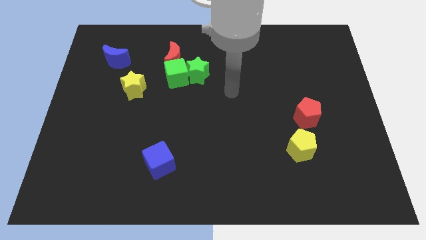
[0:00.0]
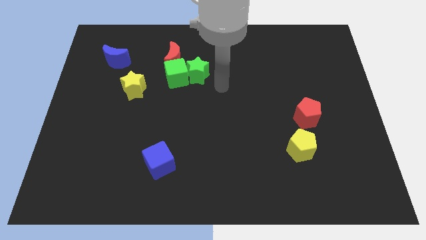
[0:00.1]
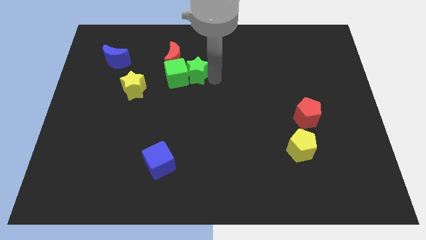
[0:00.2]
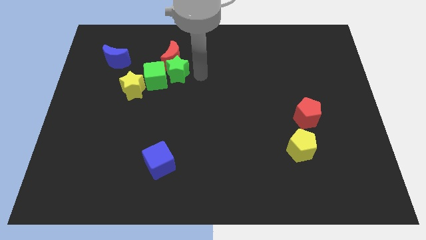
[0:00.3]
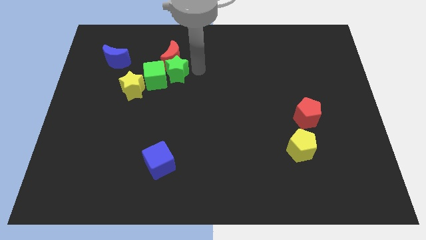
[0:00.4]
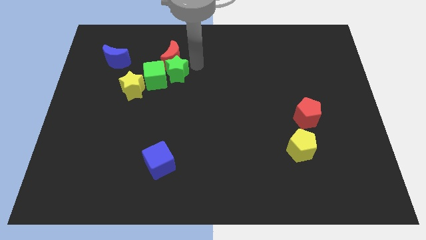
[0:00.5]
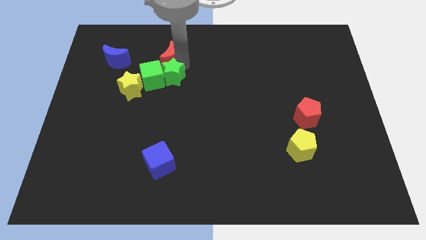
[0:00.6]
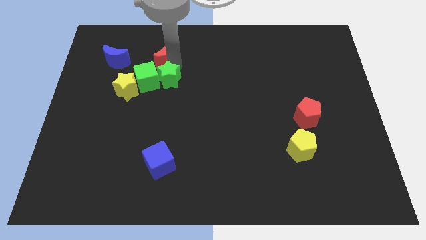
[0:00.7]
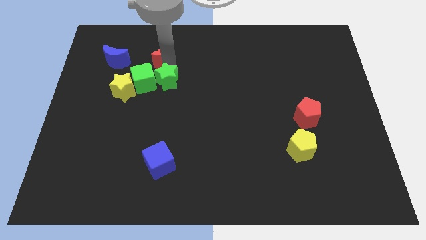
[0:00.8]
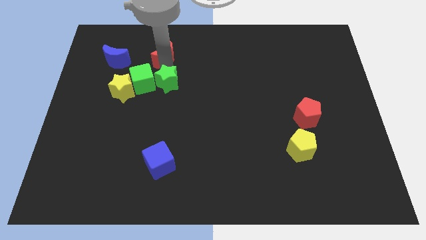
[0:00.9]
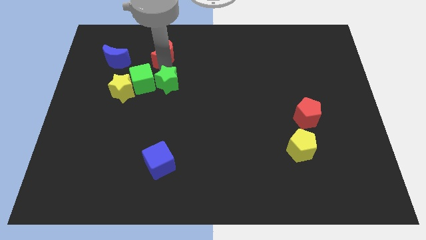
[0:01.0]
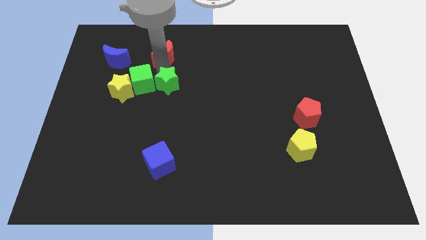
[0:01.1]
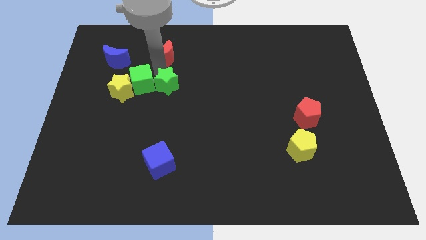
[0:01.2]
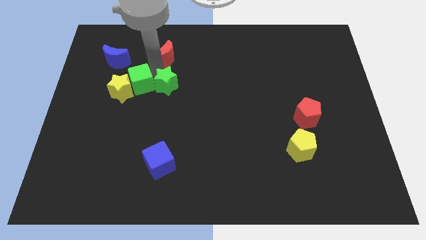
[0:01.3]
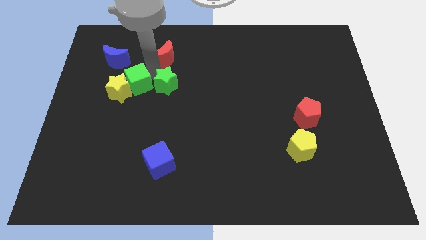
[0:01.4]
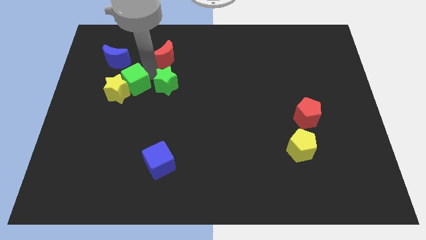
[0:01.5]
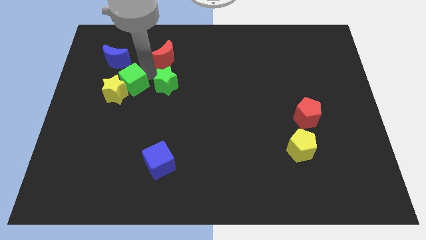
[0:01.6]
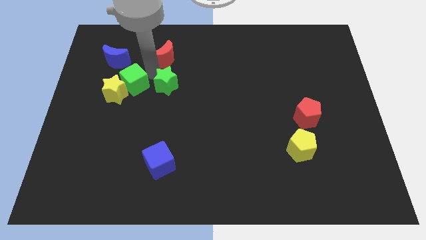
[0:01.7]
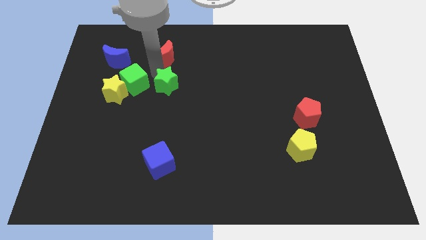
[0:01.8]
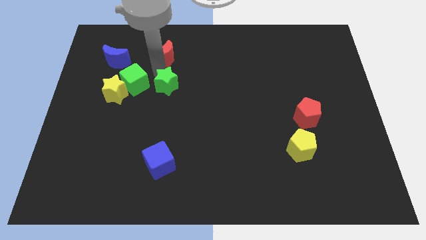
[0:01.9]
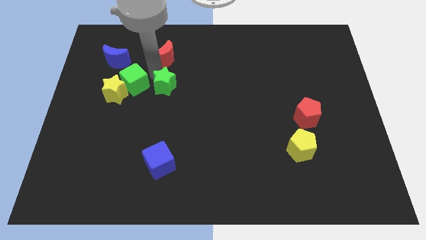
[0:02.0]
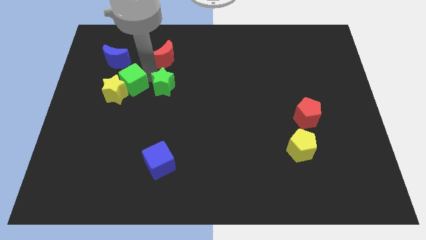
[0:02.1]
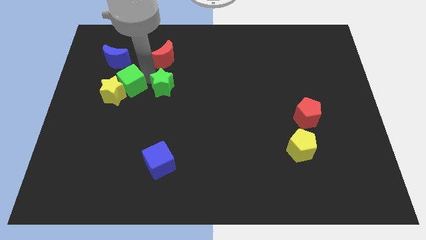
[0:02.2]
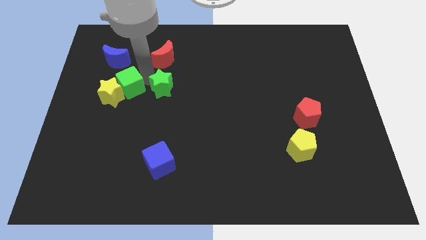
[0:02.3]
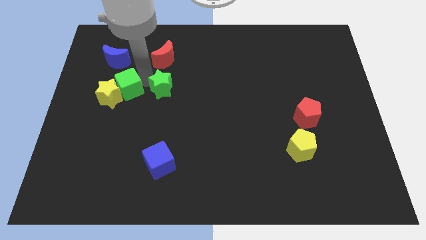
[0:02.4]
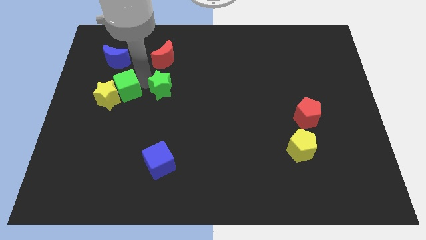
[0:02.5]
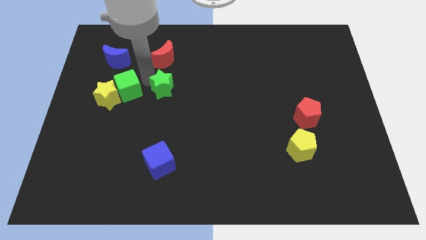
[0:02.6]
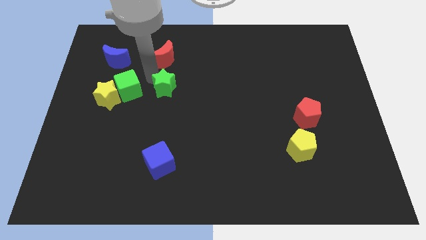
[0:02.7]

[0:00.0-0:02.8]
pull the green cube apart from the green star and red moon

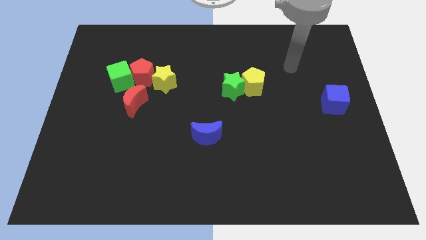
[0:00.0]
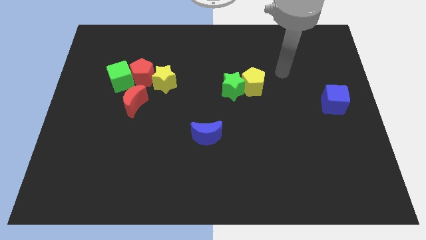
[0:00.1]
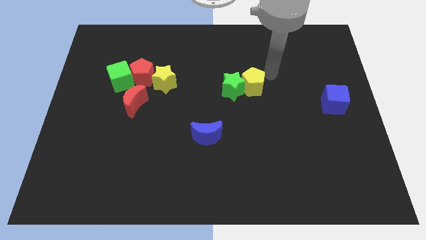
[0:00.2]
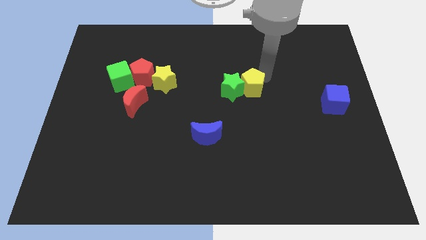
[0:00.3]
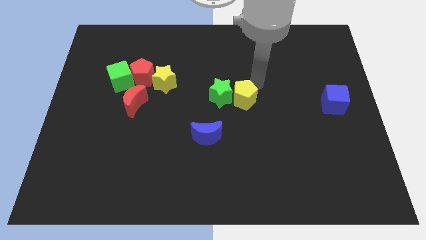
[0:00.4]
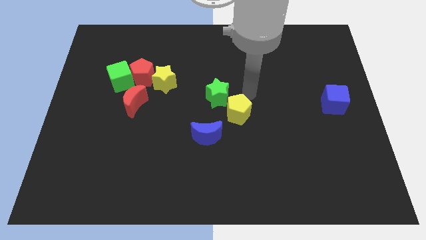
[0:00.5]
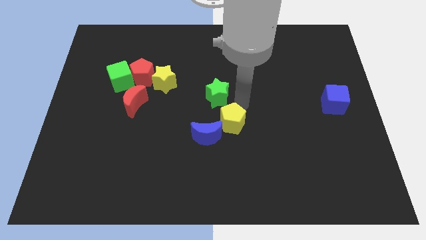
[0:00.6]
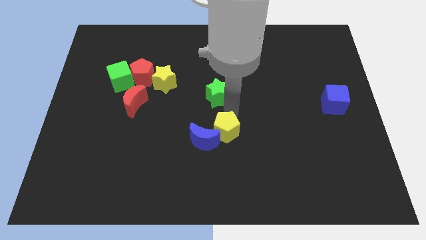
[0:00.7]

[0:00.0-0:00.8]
separate the green star from the yellow pentagon

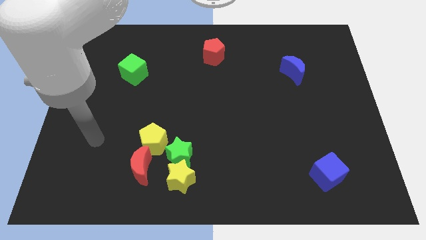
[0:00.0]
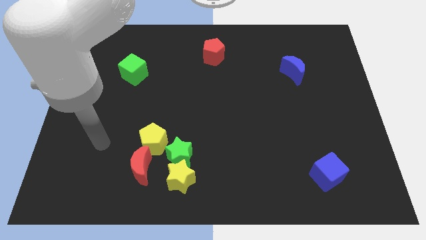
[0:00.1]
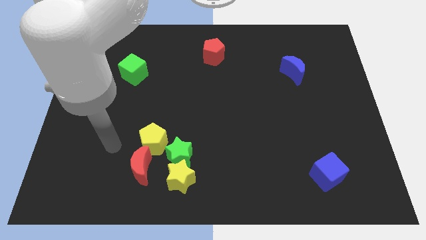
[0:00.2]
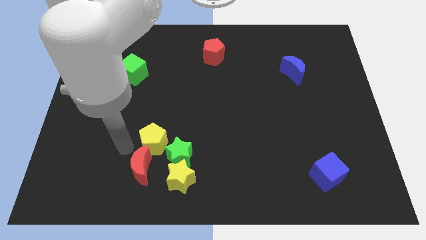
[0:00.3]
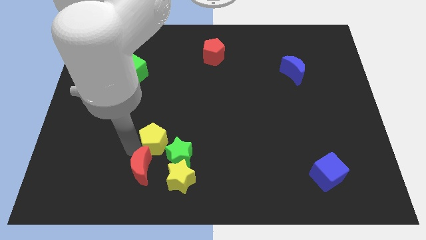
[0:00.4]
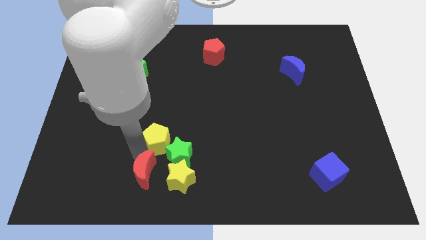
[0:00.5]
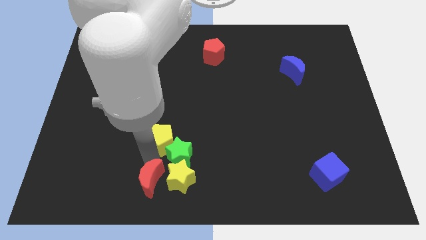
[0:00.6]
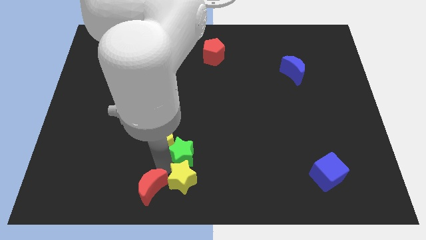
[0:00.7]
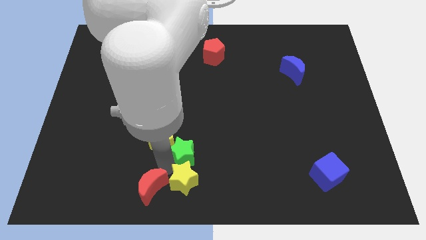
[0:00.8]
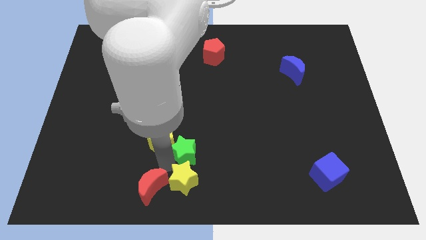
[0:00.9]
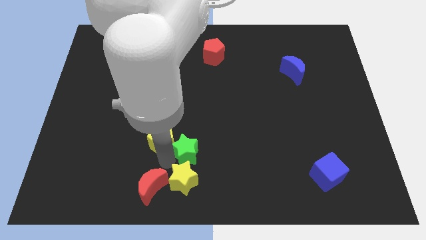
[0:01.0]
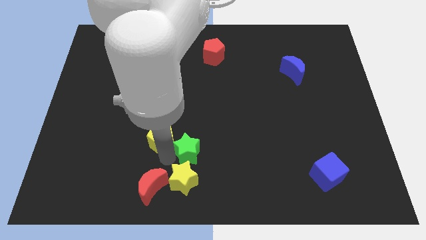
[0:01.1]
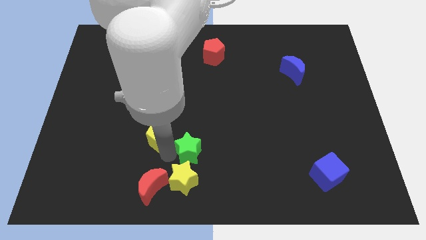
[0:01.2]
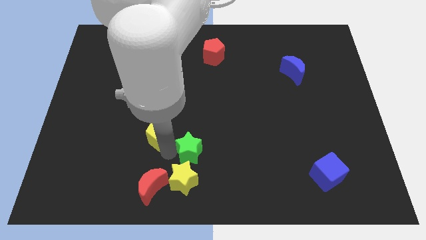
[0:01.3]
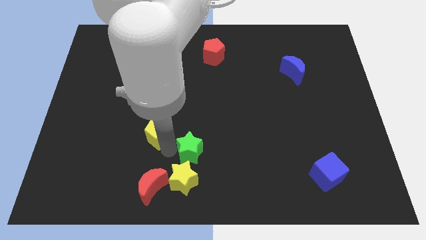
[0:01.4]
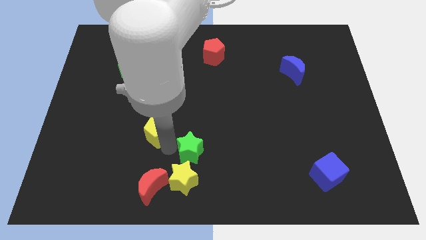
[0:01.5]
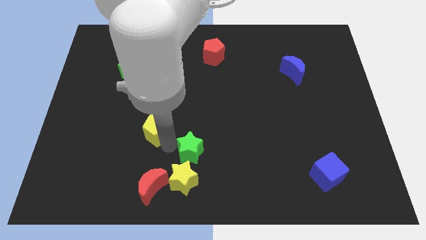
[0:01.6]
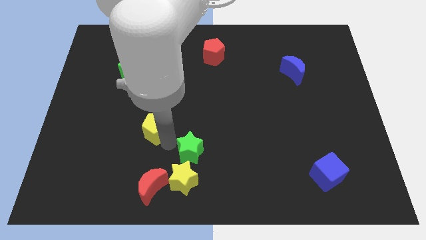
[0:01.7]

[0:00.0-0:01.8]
pull the yellow pentagon apart from the red moon and green star

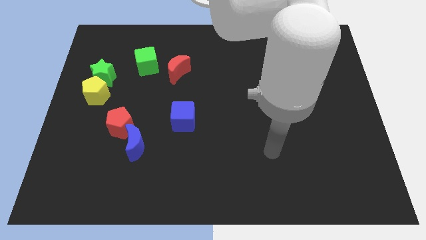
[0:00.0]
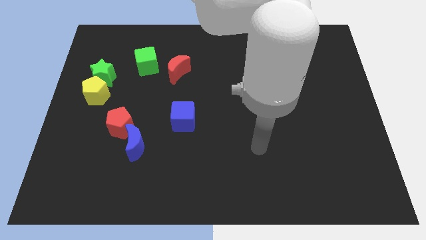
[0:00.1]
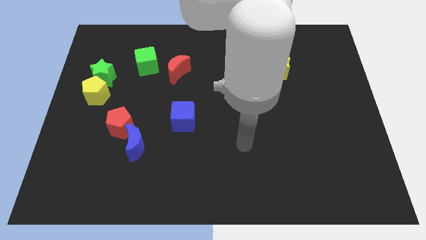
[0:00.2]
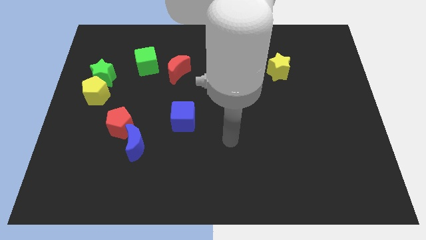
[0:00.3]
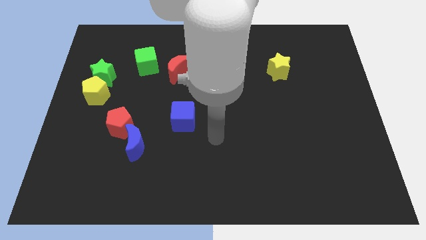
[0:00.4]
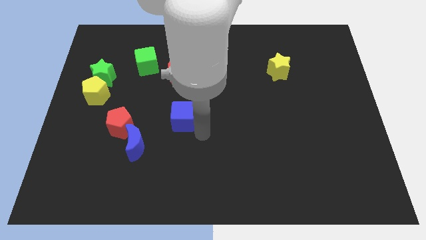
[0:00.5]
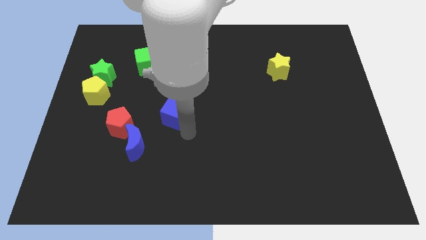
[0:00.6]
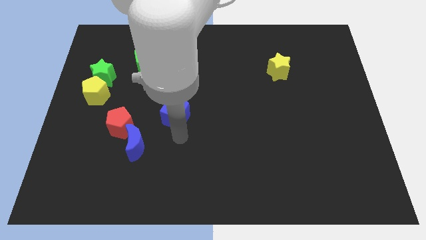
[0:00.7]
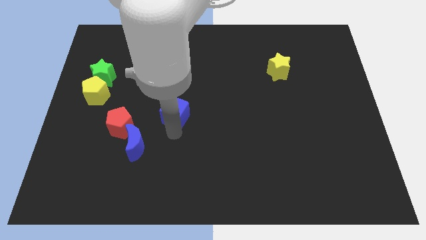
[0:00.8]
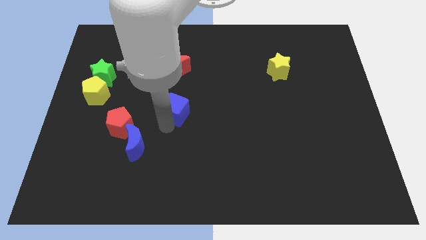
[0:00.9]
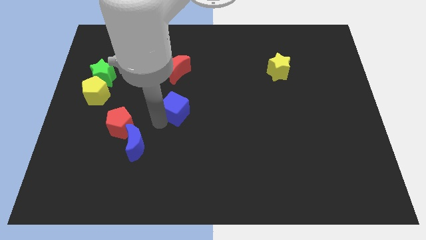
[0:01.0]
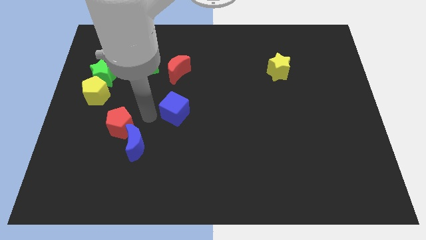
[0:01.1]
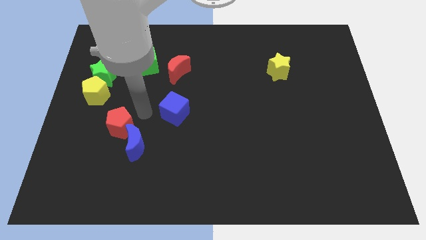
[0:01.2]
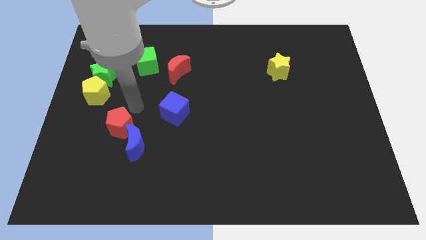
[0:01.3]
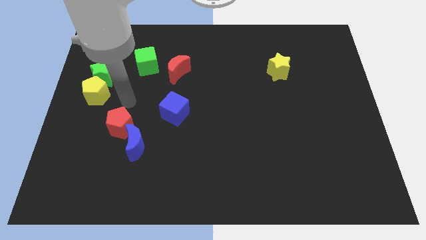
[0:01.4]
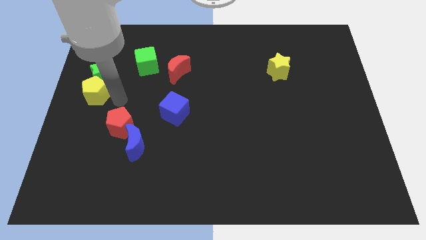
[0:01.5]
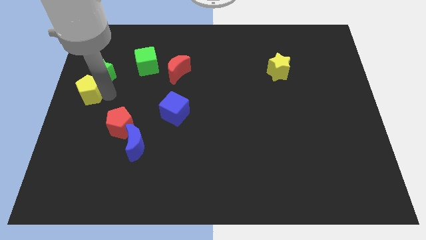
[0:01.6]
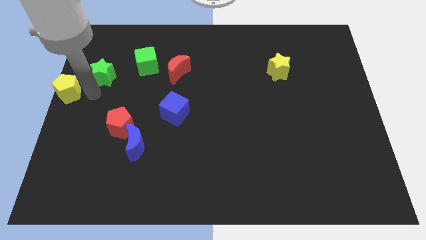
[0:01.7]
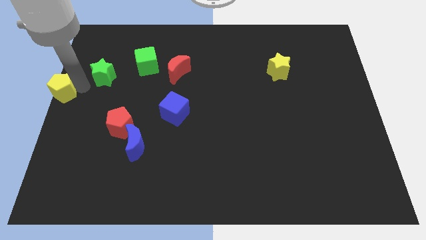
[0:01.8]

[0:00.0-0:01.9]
move the green star away from the yellow pentagon

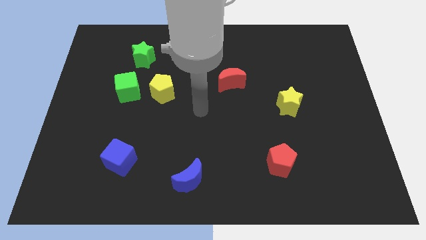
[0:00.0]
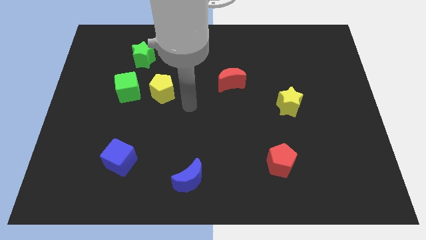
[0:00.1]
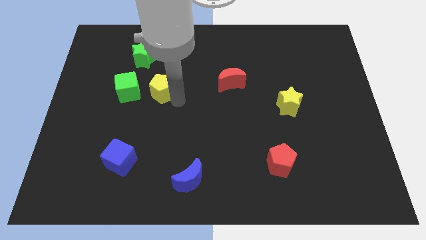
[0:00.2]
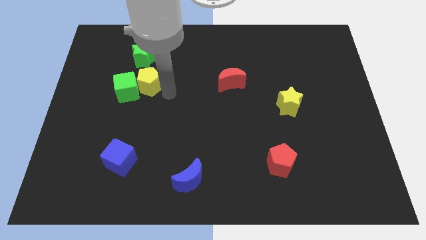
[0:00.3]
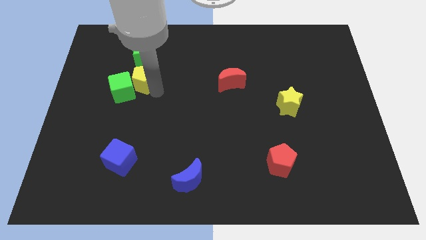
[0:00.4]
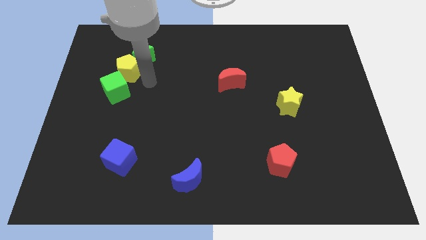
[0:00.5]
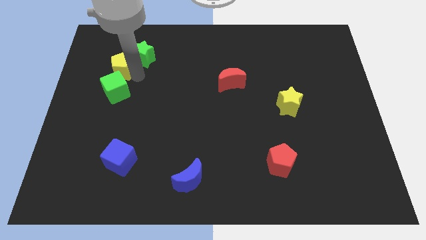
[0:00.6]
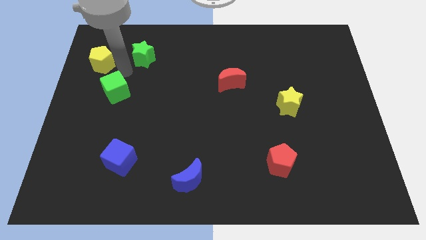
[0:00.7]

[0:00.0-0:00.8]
separate the green cube from the yellow pentagon

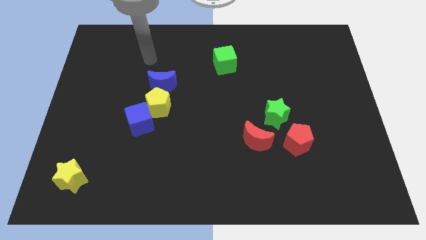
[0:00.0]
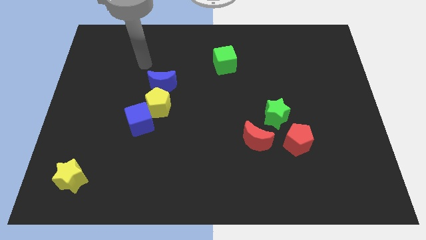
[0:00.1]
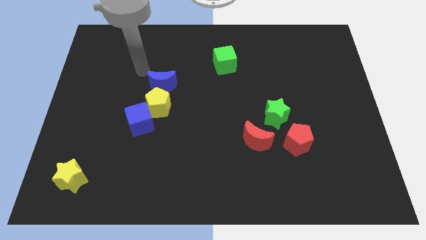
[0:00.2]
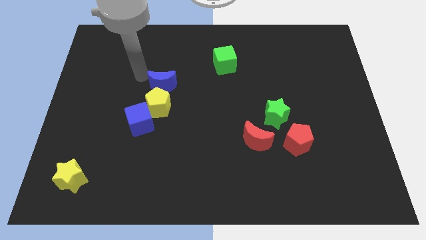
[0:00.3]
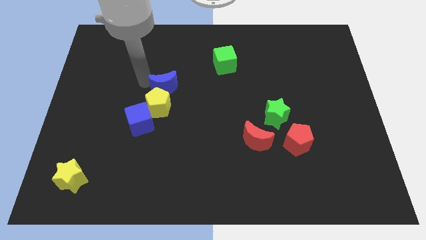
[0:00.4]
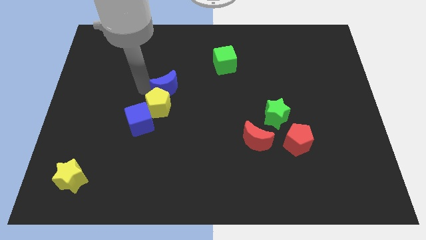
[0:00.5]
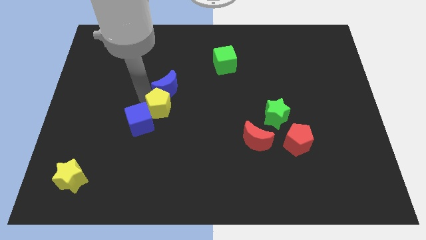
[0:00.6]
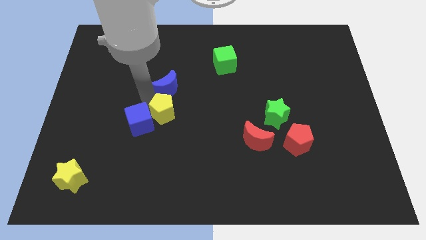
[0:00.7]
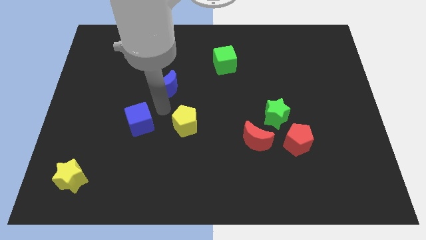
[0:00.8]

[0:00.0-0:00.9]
separate the blue cube from the yellow pentagon

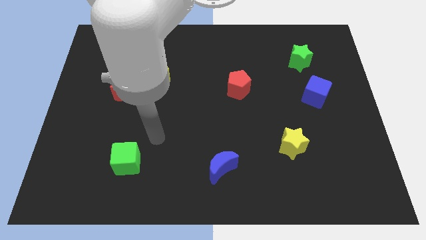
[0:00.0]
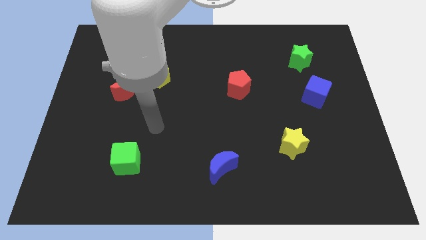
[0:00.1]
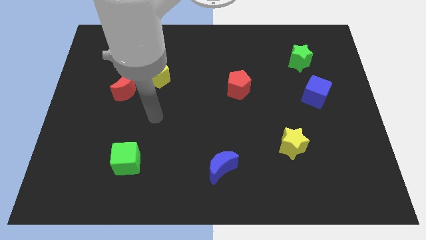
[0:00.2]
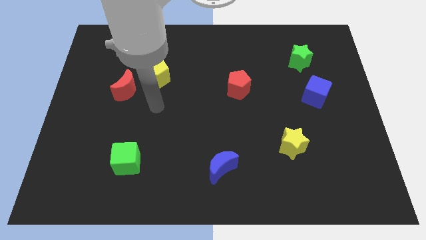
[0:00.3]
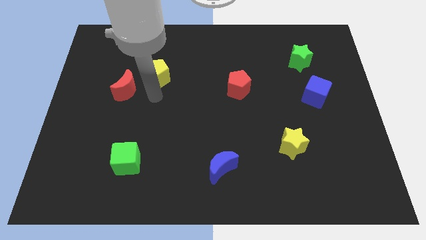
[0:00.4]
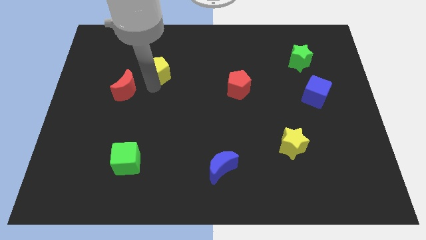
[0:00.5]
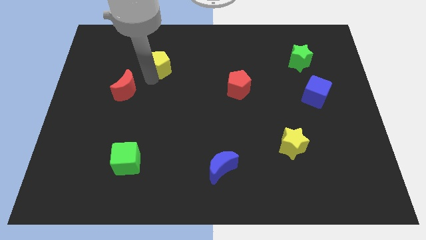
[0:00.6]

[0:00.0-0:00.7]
separate the red moon from the yellow pentagon
